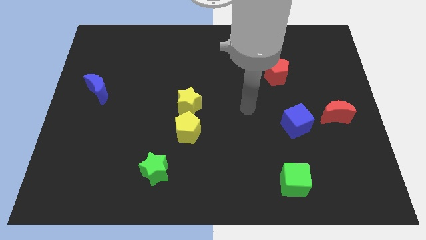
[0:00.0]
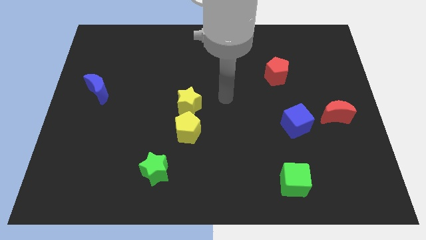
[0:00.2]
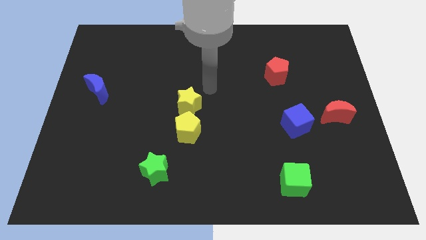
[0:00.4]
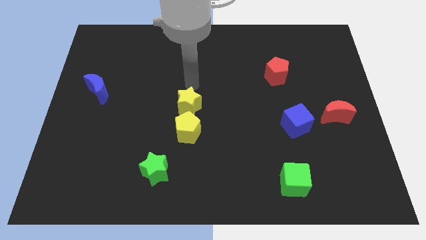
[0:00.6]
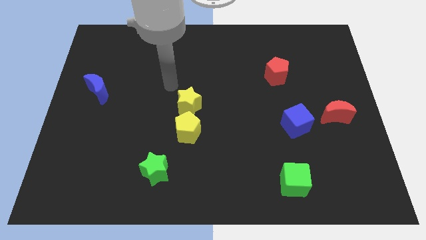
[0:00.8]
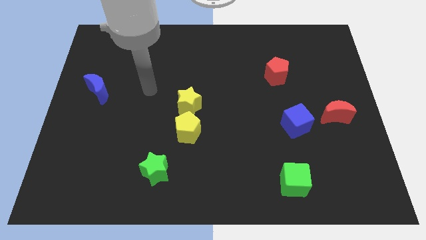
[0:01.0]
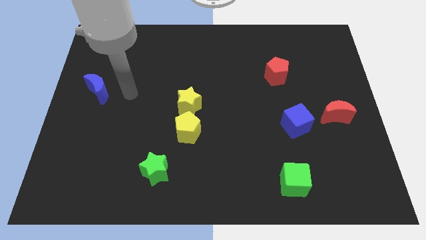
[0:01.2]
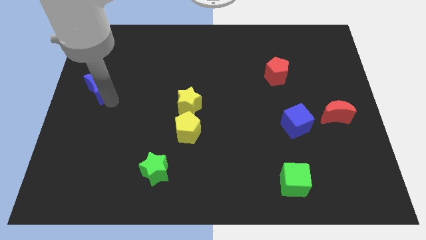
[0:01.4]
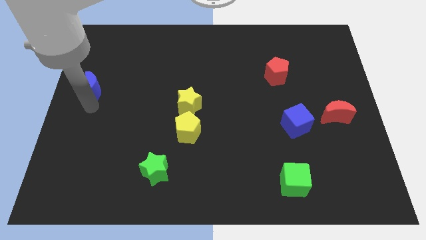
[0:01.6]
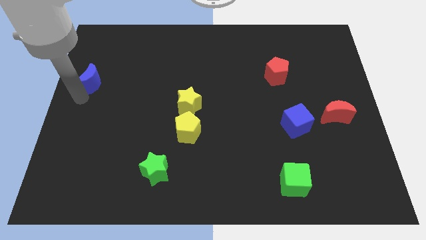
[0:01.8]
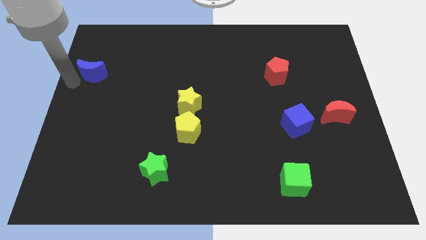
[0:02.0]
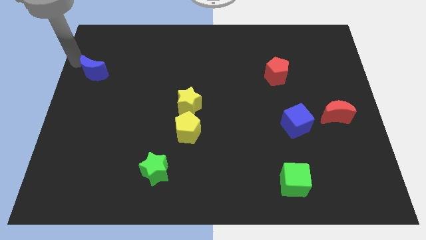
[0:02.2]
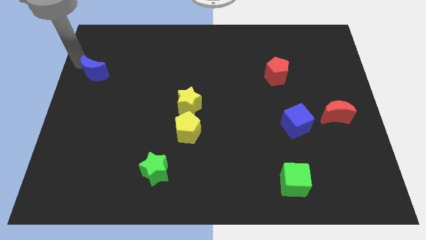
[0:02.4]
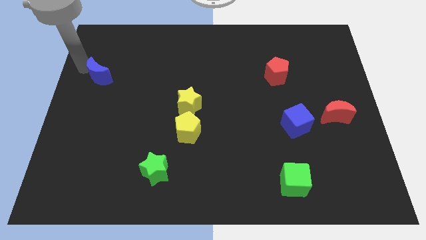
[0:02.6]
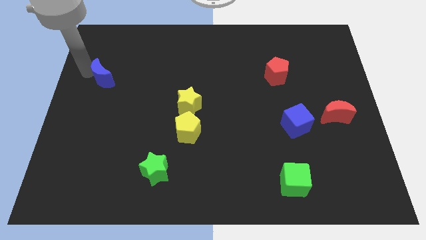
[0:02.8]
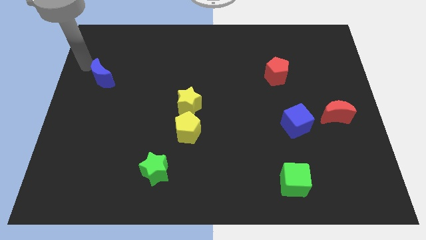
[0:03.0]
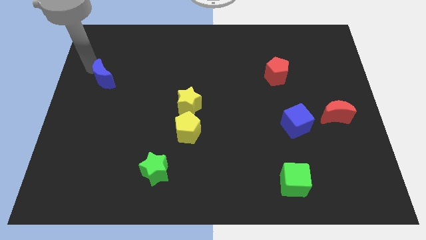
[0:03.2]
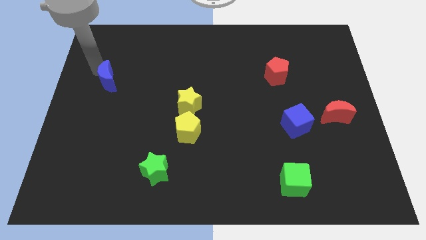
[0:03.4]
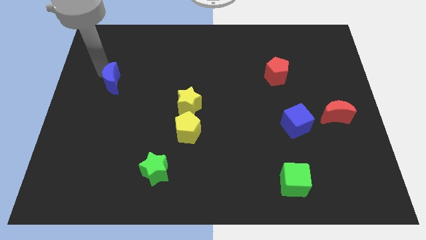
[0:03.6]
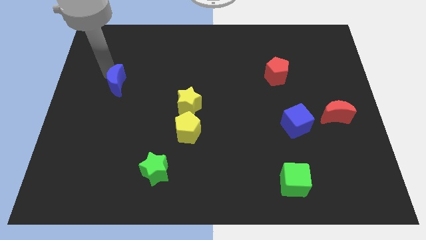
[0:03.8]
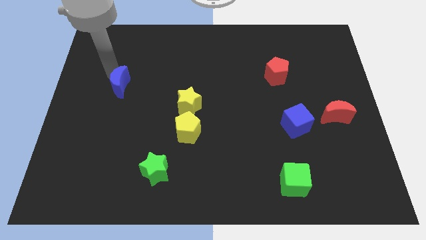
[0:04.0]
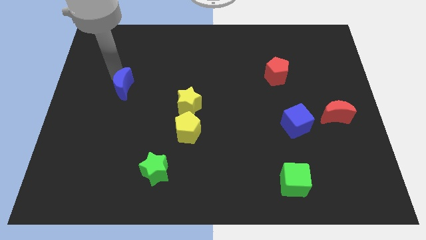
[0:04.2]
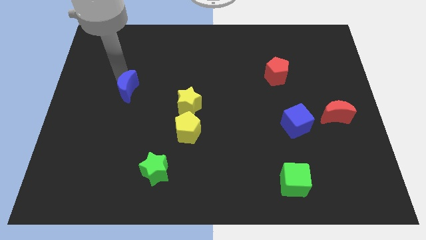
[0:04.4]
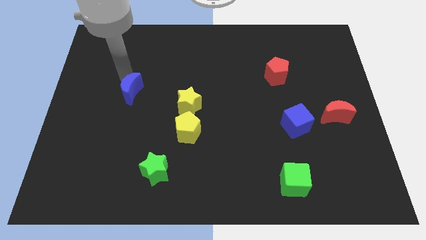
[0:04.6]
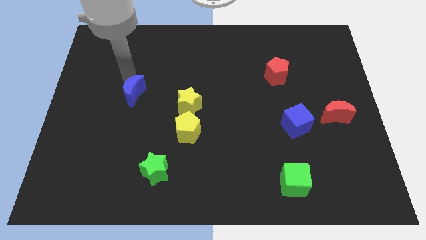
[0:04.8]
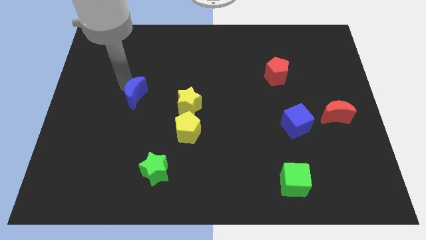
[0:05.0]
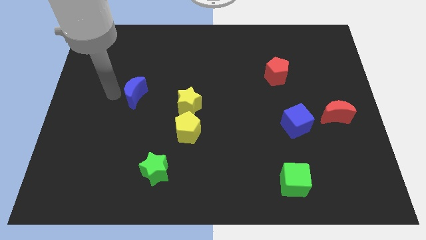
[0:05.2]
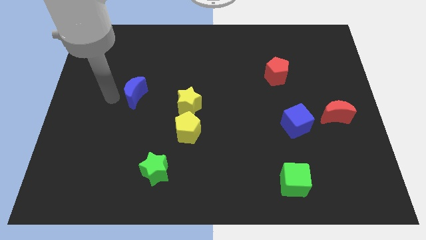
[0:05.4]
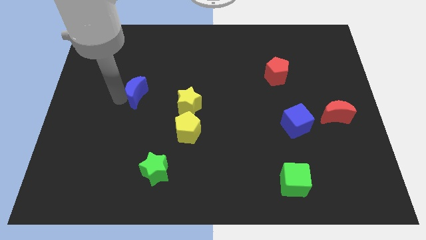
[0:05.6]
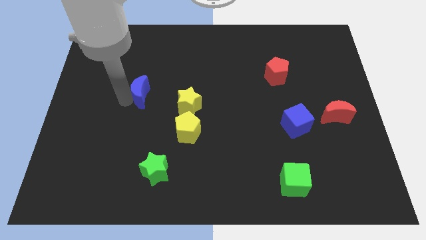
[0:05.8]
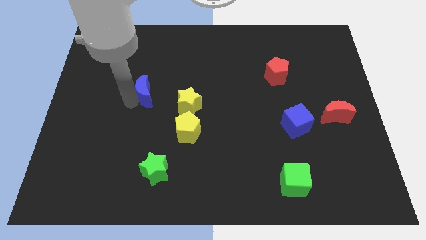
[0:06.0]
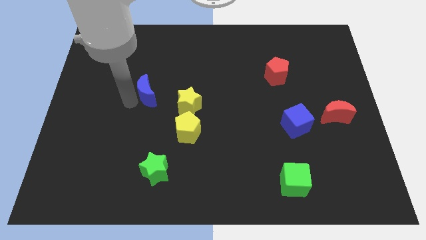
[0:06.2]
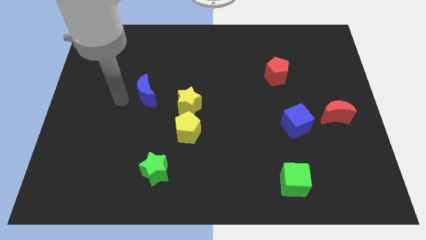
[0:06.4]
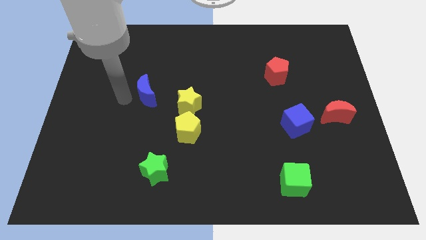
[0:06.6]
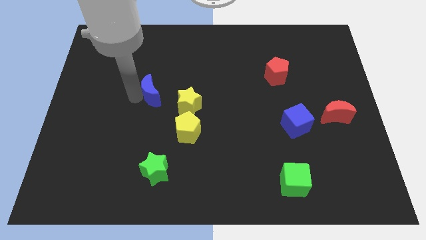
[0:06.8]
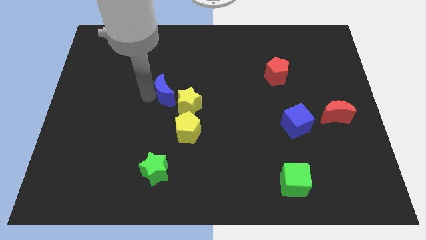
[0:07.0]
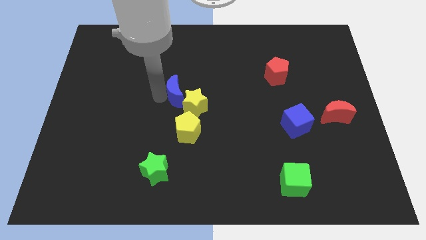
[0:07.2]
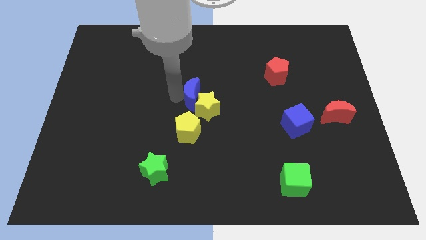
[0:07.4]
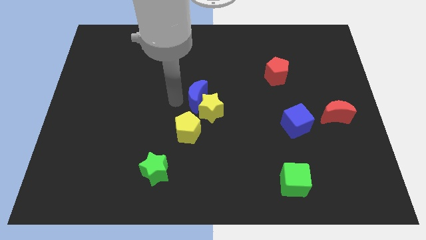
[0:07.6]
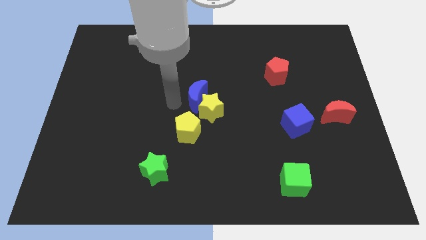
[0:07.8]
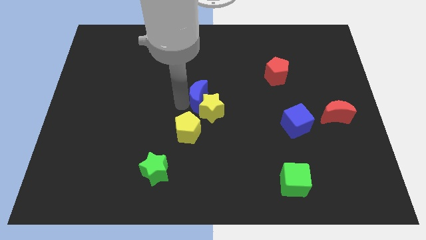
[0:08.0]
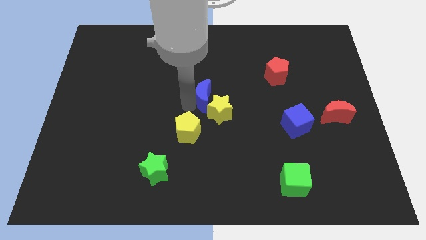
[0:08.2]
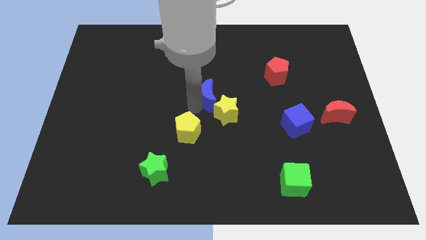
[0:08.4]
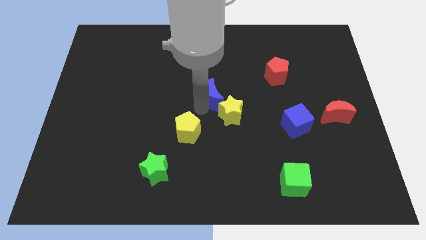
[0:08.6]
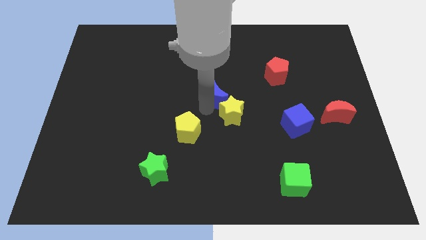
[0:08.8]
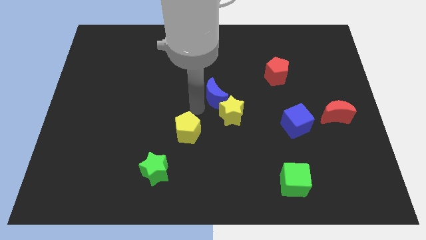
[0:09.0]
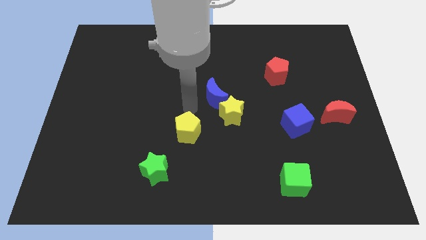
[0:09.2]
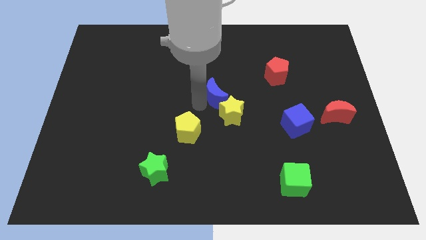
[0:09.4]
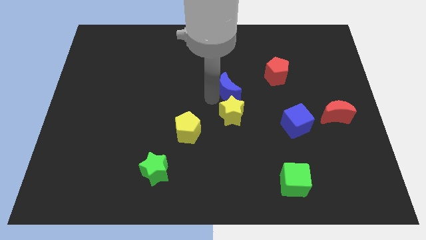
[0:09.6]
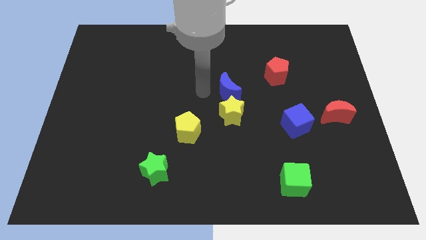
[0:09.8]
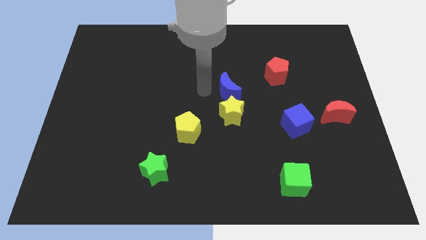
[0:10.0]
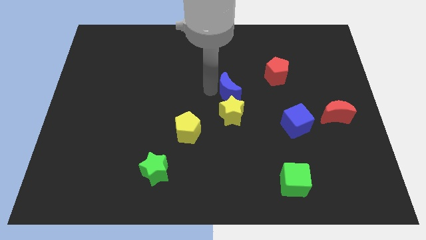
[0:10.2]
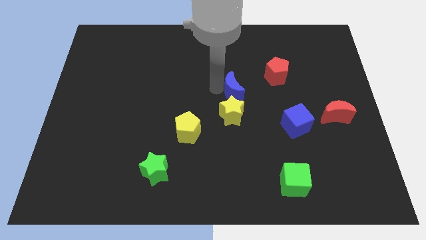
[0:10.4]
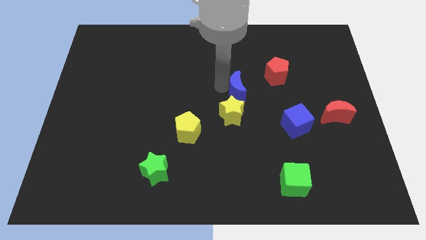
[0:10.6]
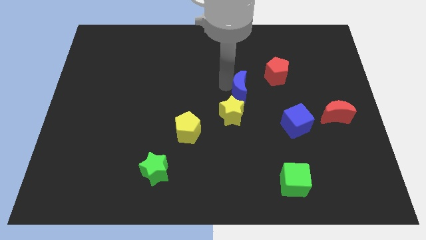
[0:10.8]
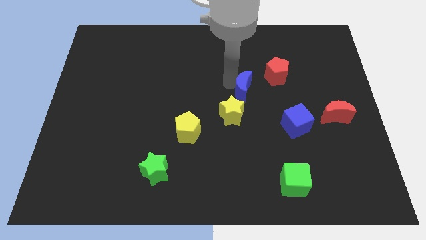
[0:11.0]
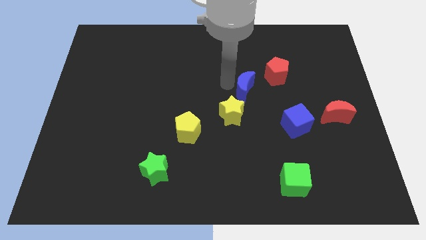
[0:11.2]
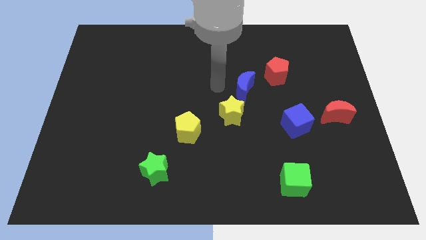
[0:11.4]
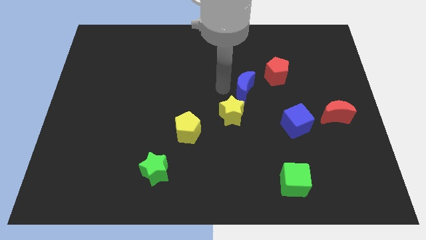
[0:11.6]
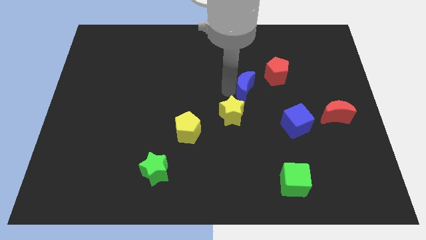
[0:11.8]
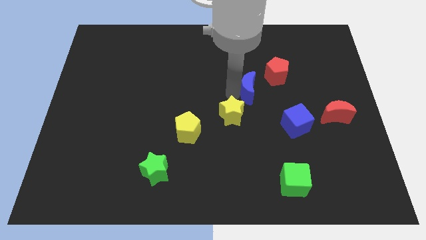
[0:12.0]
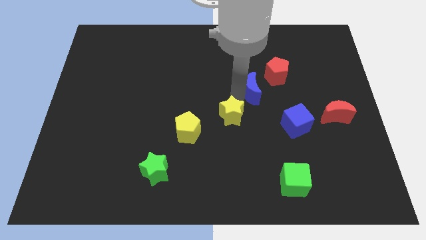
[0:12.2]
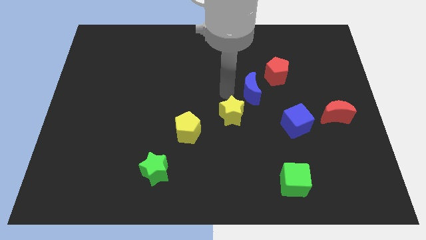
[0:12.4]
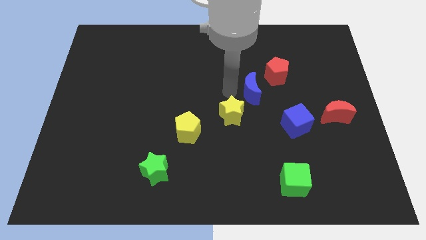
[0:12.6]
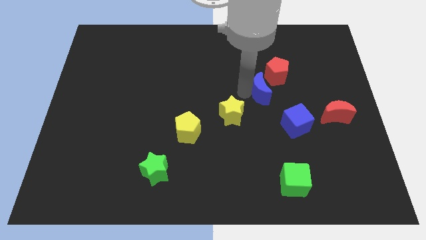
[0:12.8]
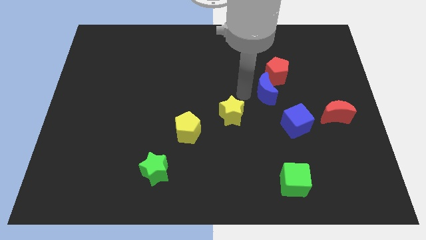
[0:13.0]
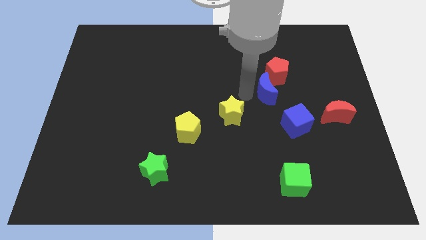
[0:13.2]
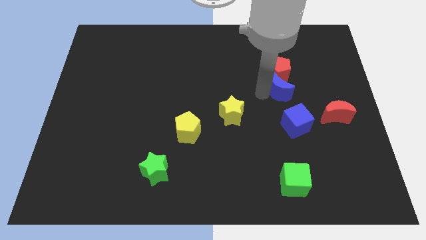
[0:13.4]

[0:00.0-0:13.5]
slide the blue moon to the bottom right side of the red pentagon
